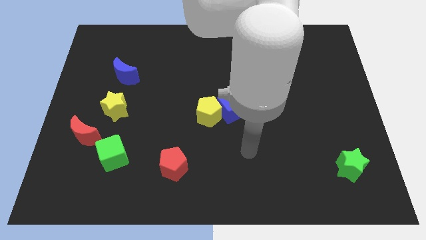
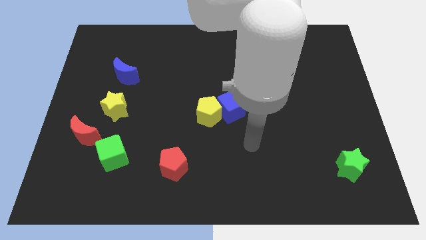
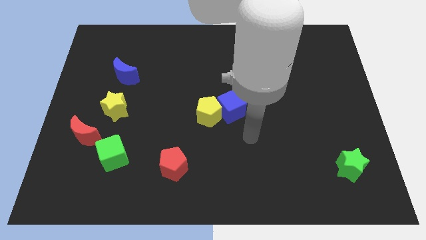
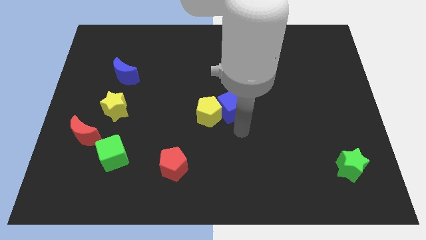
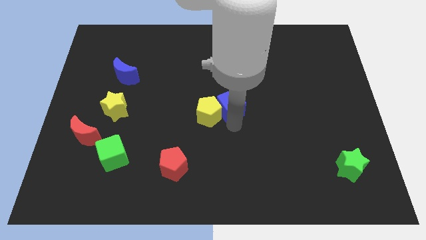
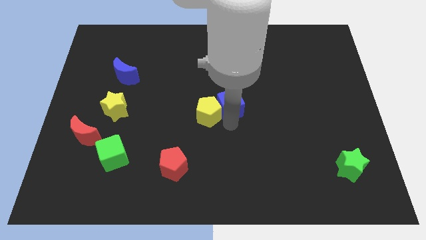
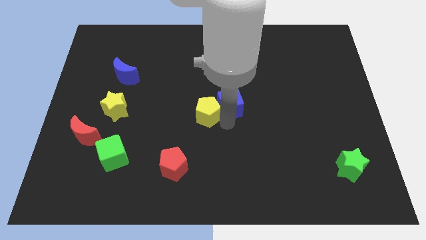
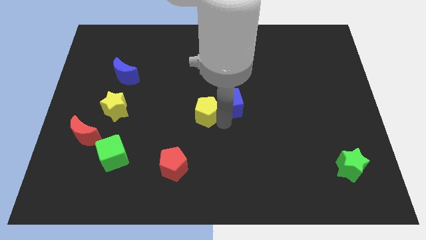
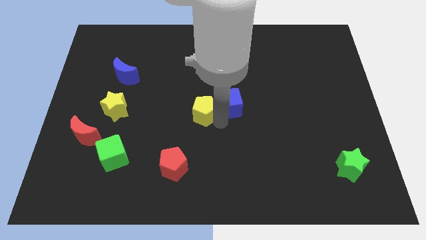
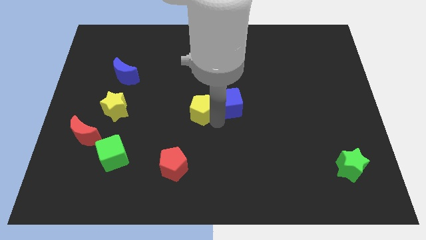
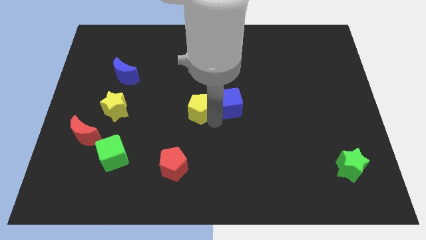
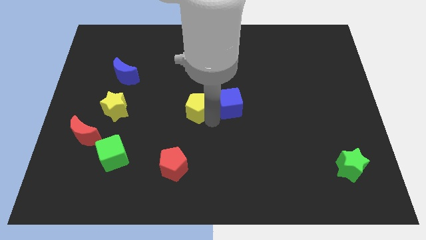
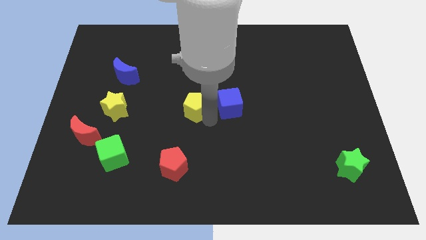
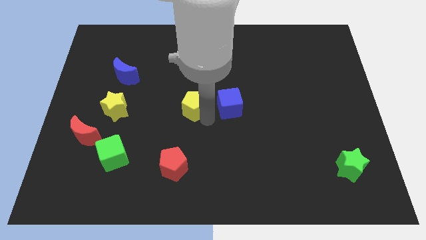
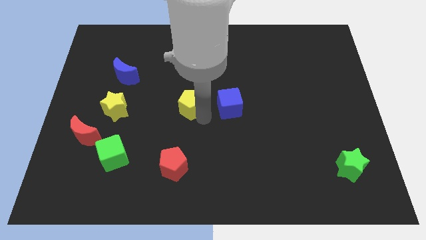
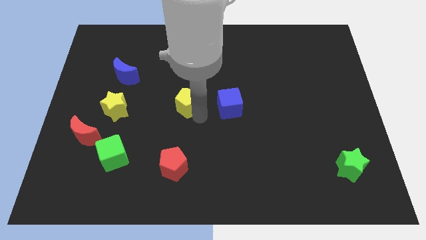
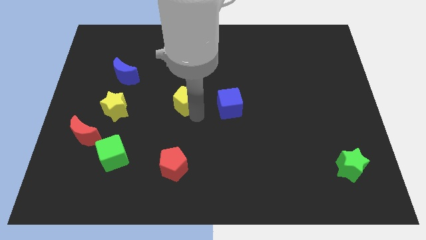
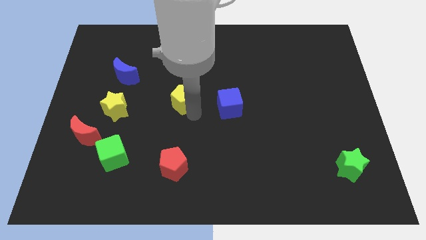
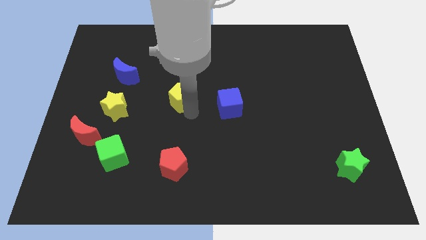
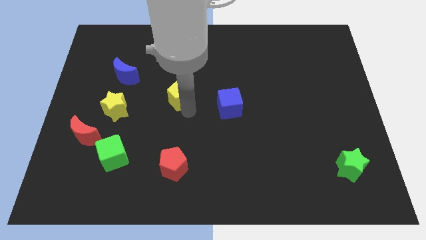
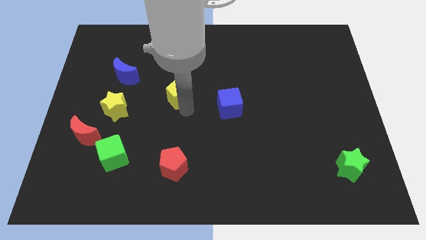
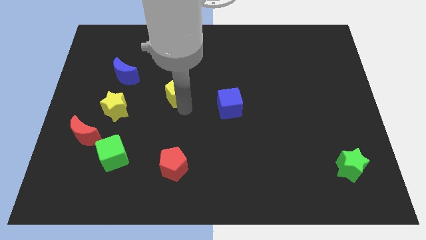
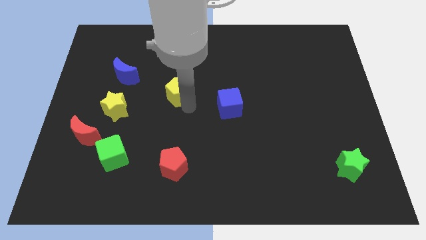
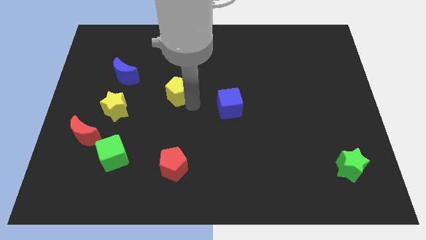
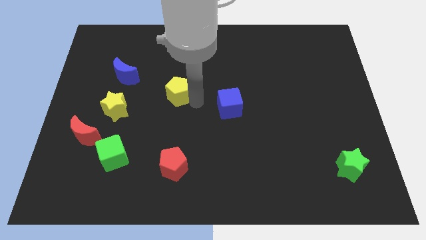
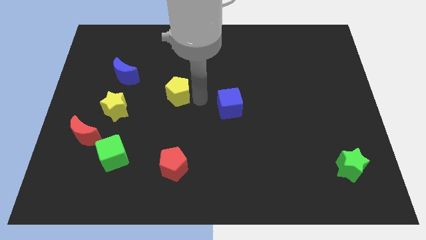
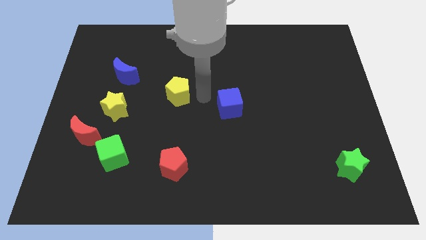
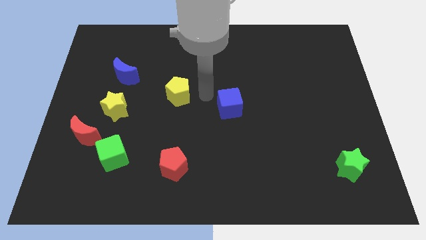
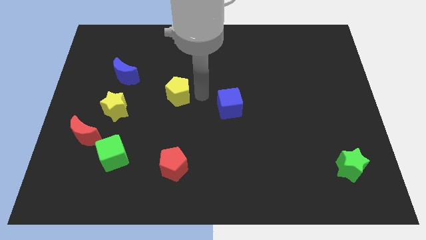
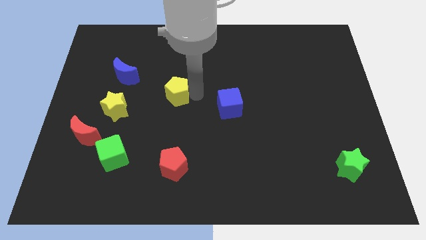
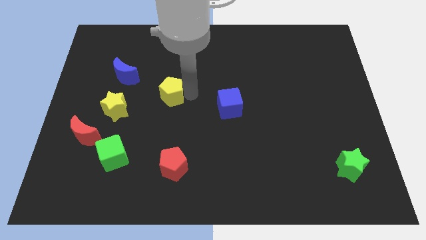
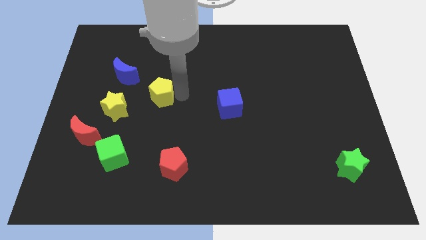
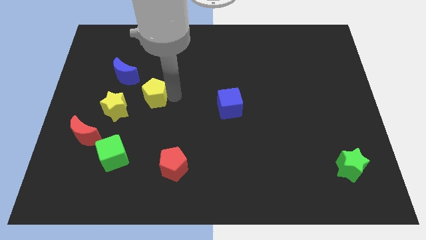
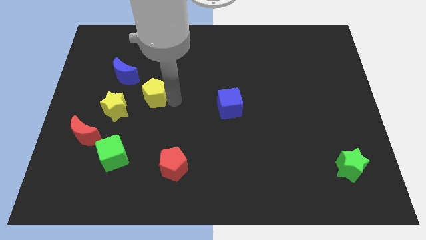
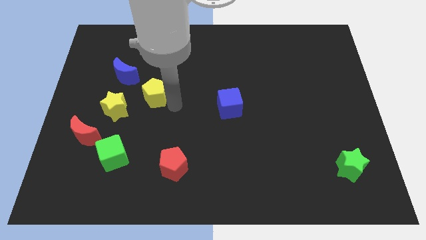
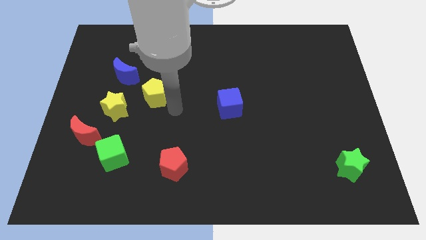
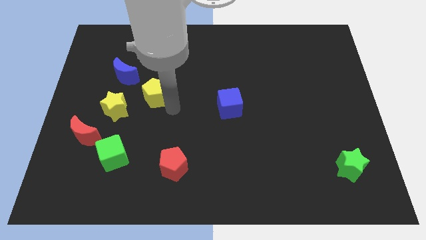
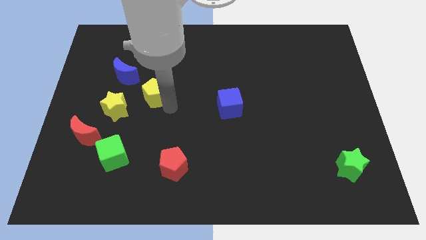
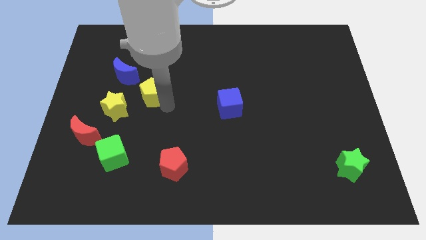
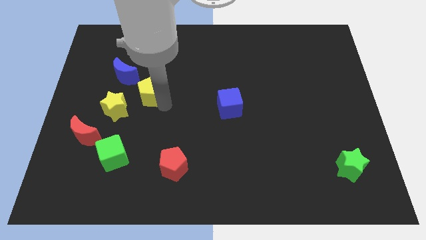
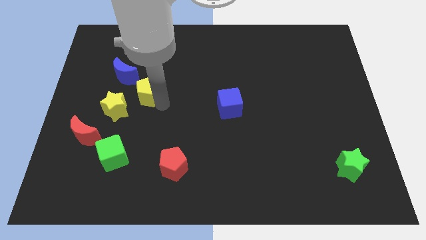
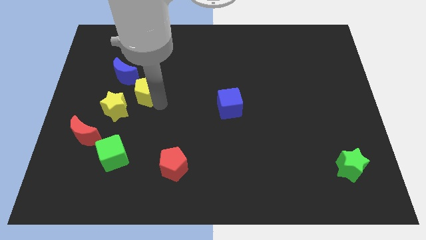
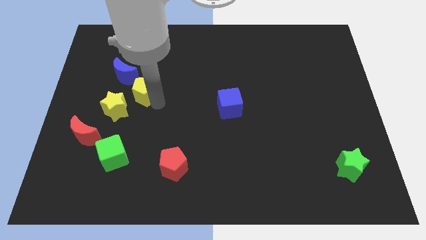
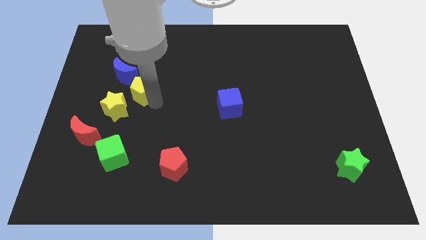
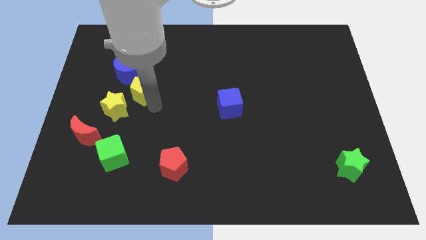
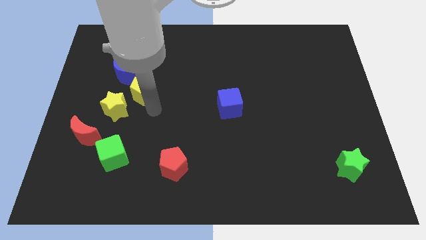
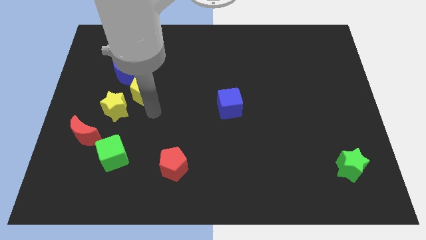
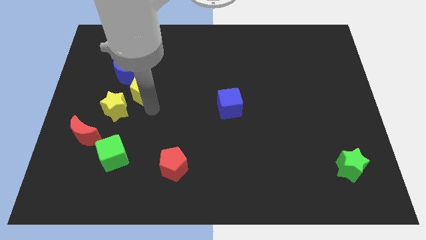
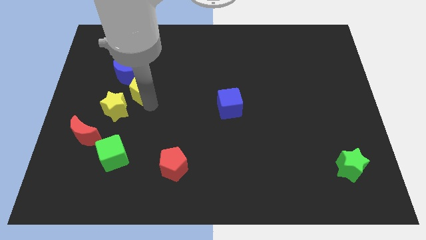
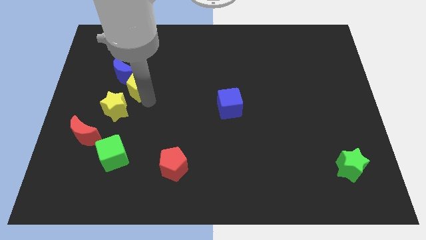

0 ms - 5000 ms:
put the yellow pentagon to the blue moon

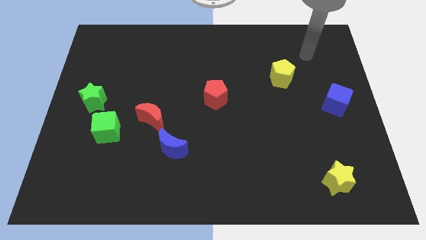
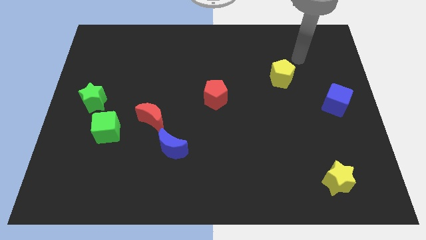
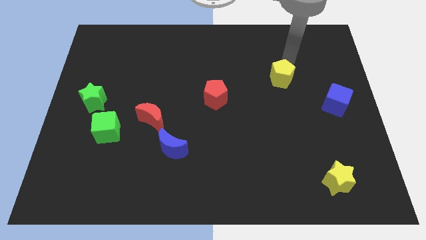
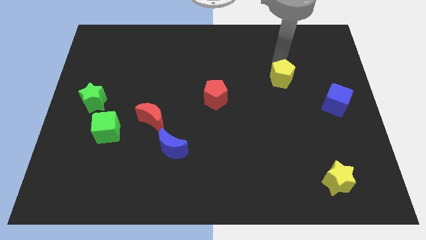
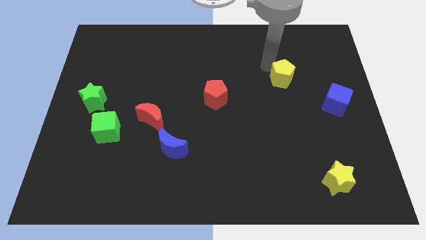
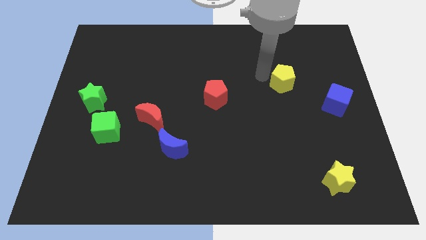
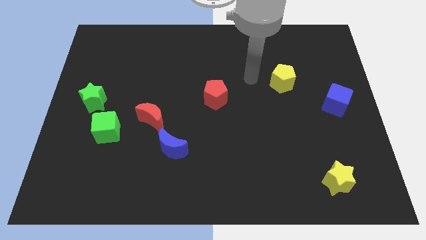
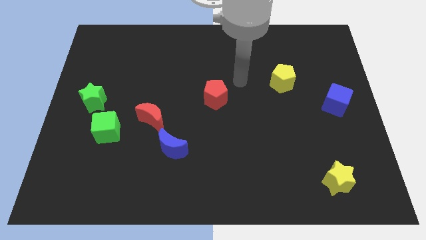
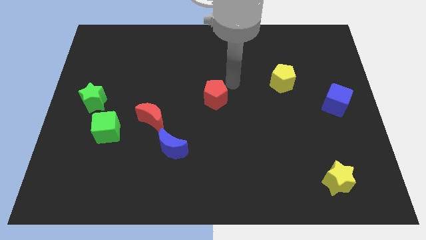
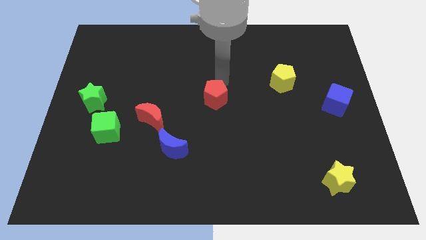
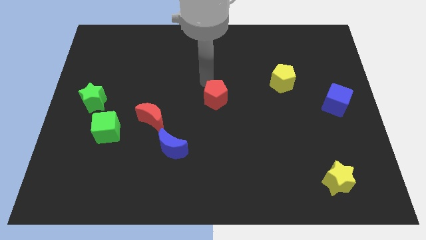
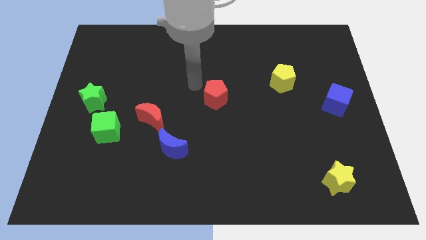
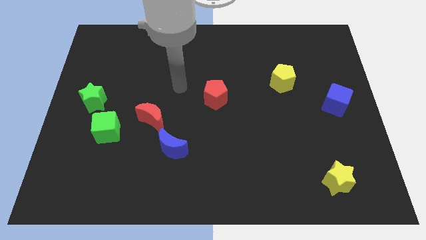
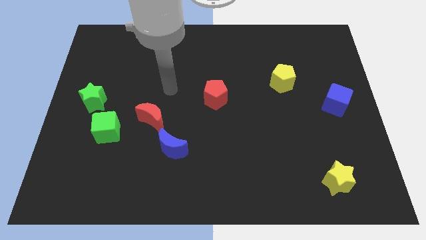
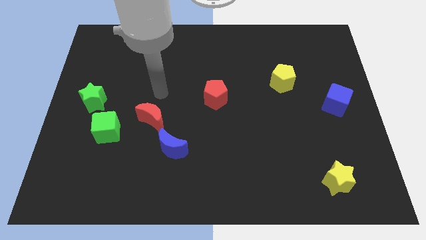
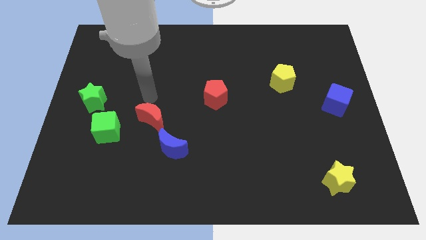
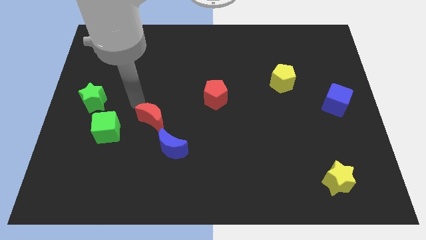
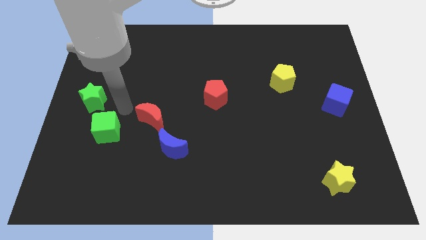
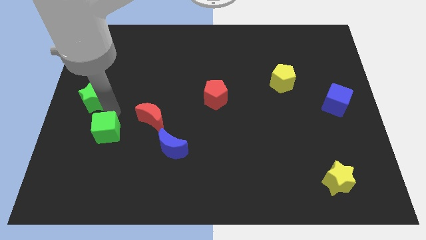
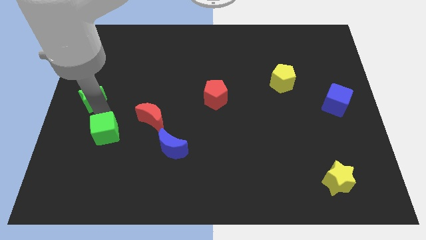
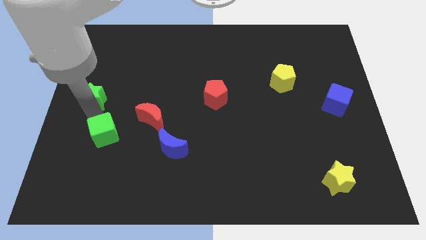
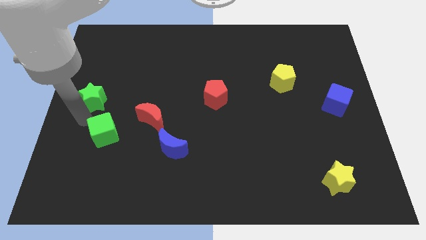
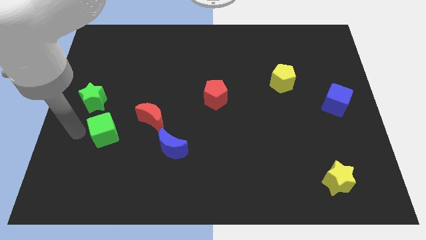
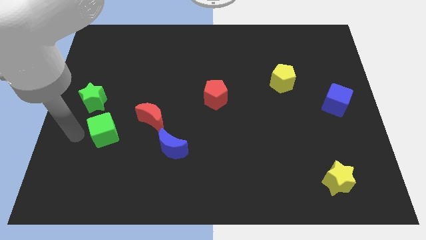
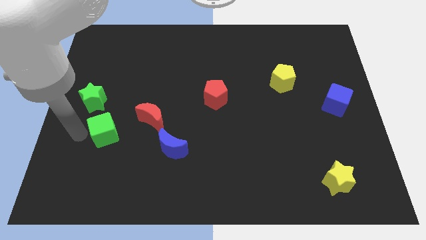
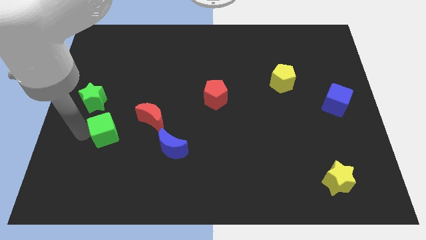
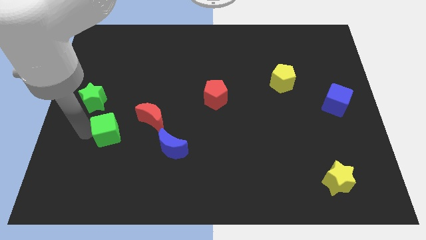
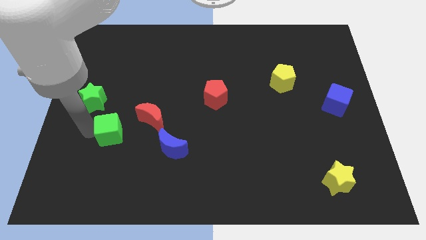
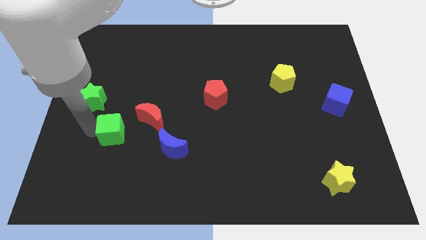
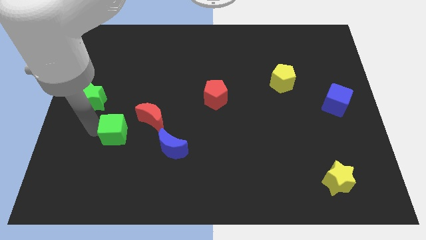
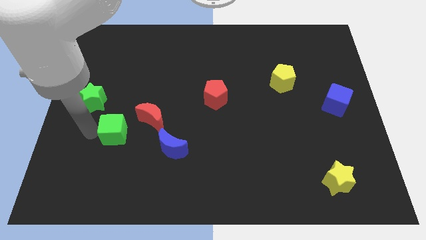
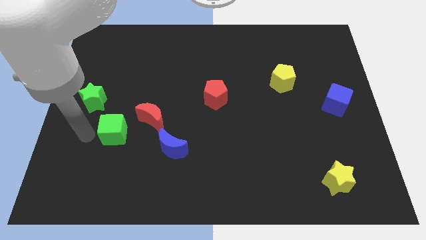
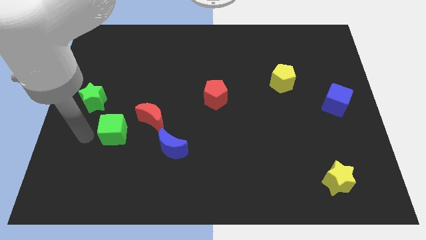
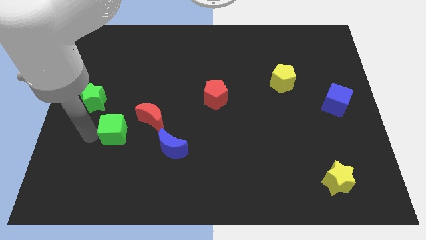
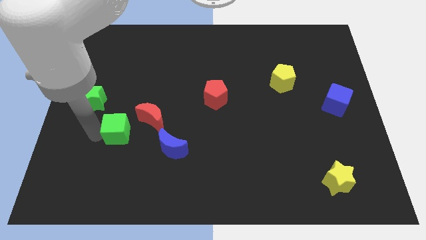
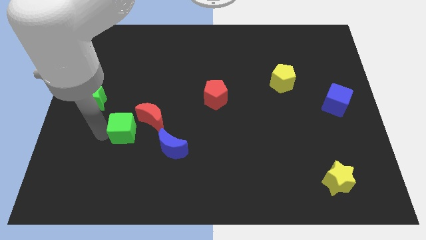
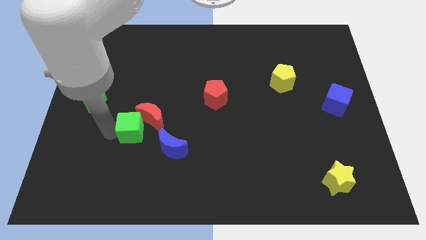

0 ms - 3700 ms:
slide the green cube close to the red moon
